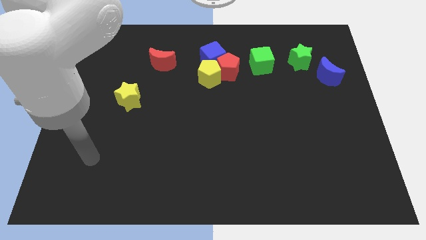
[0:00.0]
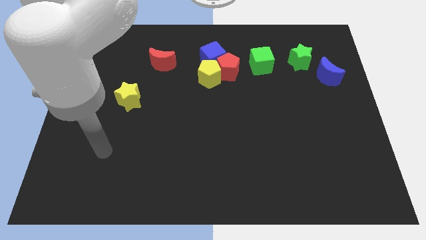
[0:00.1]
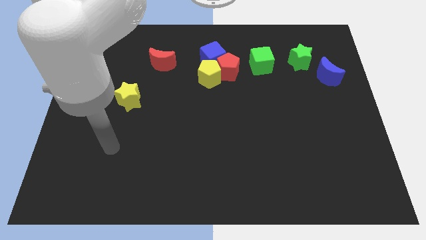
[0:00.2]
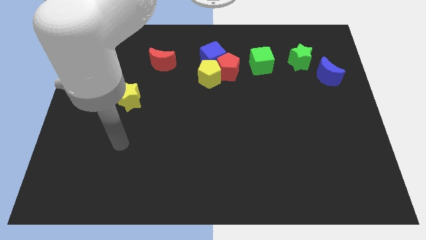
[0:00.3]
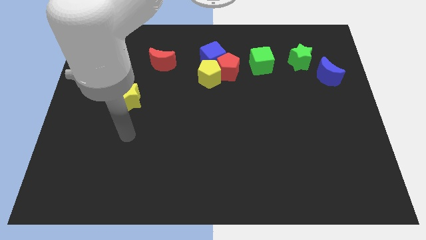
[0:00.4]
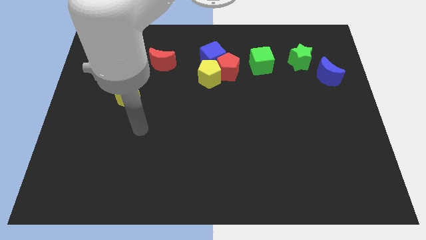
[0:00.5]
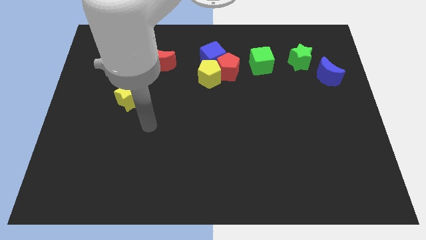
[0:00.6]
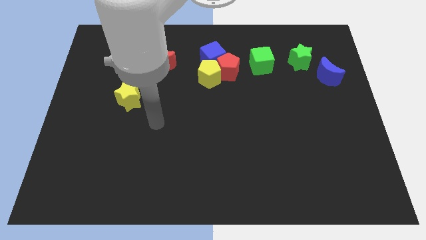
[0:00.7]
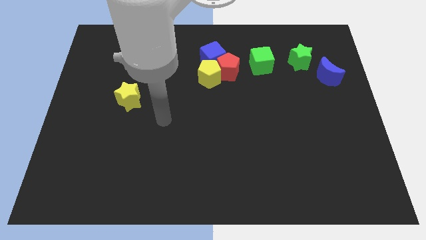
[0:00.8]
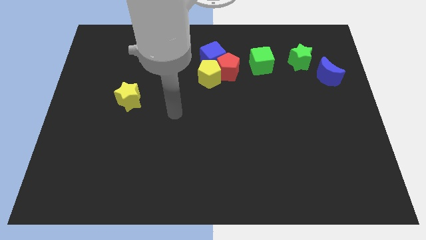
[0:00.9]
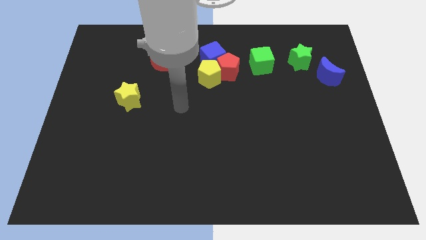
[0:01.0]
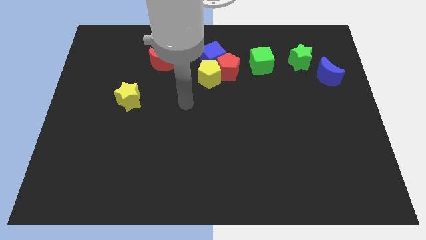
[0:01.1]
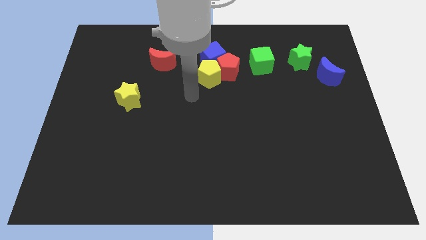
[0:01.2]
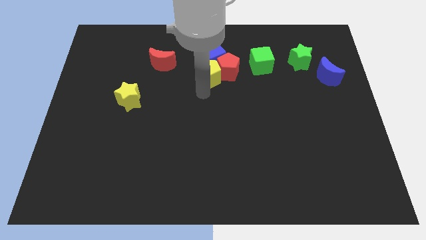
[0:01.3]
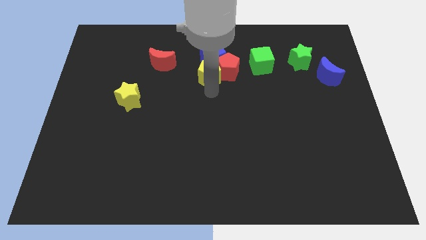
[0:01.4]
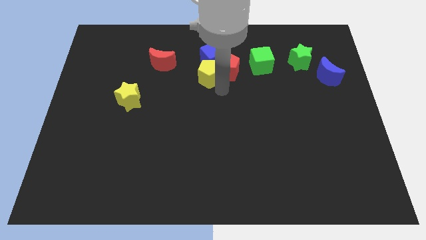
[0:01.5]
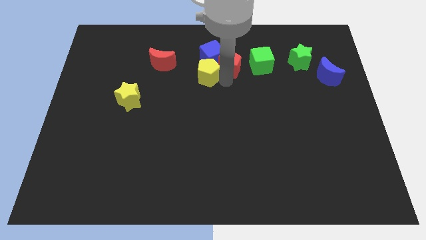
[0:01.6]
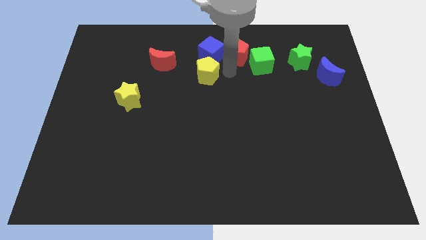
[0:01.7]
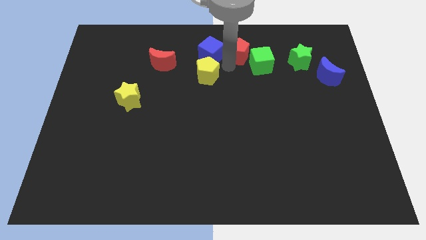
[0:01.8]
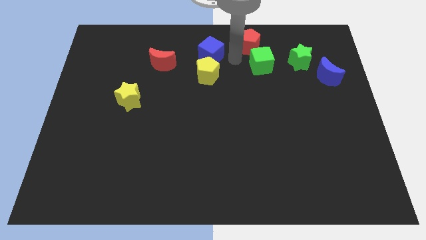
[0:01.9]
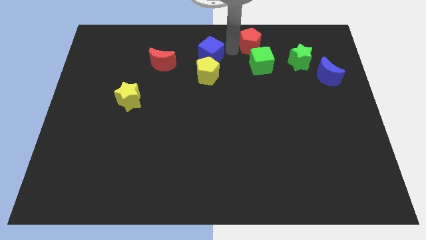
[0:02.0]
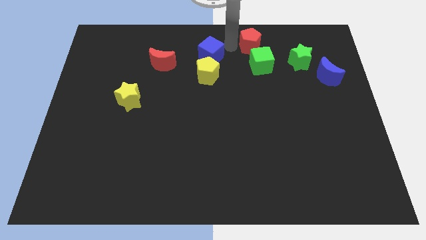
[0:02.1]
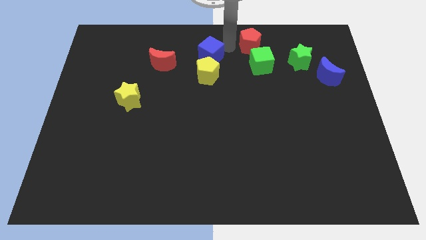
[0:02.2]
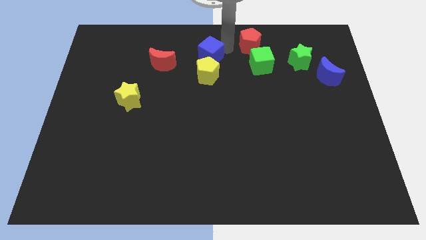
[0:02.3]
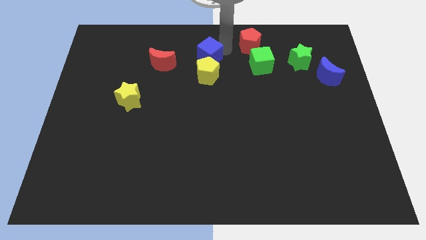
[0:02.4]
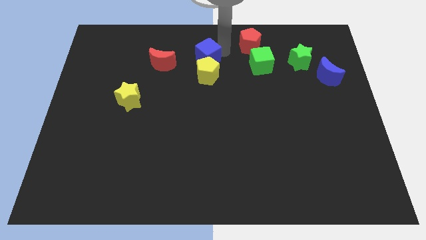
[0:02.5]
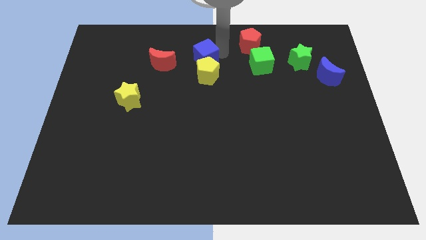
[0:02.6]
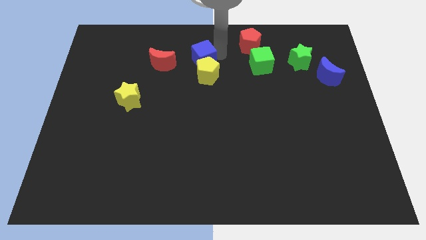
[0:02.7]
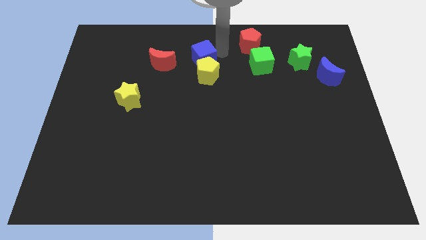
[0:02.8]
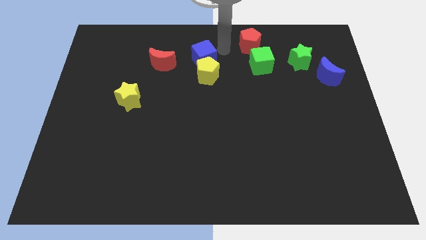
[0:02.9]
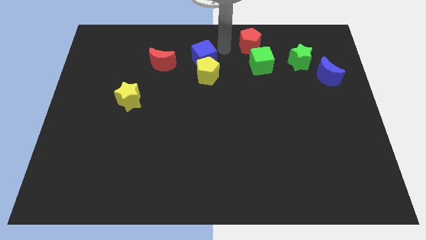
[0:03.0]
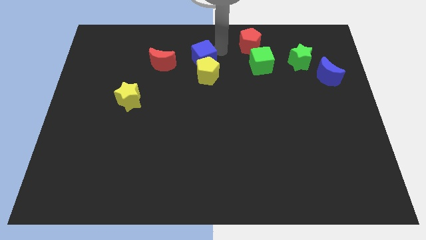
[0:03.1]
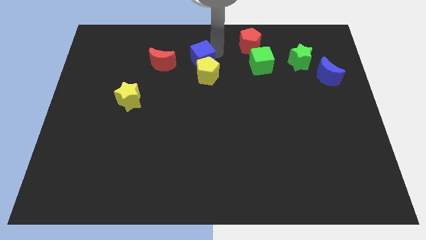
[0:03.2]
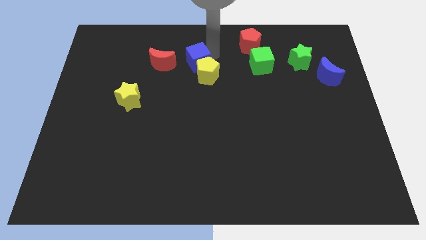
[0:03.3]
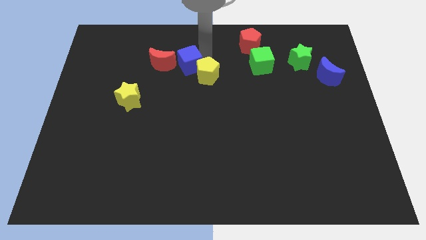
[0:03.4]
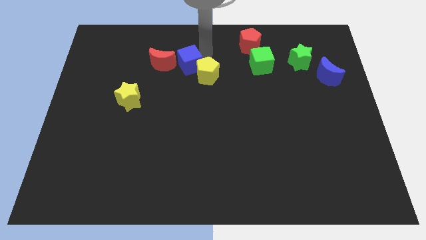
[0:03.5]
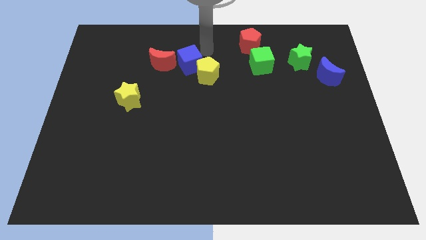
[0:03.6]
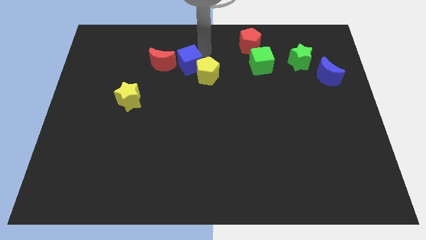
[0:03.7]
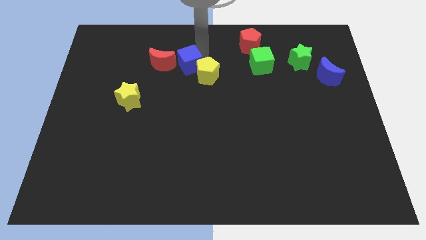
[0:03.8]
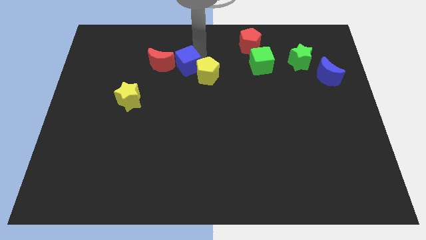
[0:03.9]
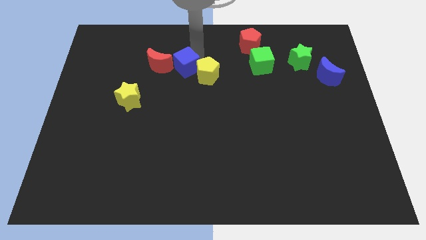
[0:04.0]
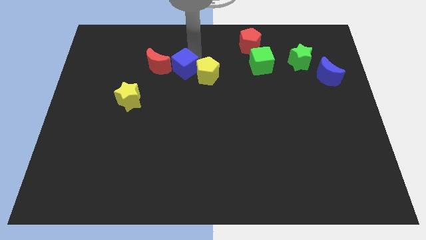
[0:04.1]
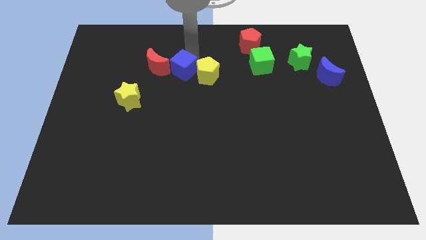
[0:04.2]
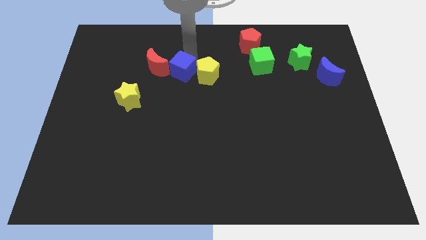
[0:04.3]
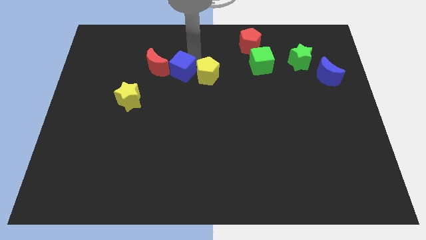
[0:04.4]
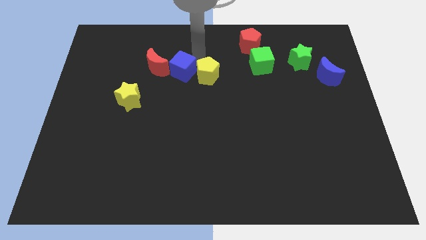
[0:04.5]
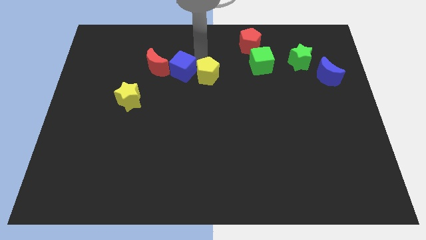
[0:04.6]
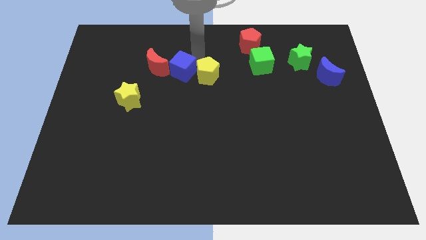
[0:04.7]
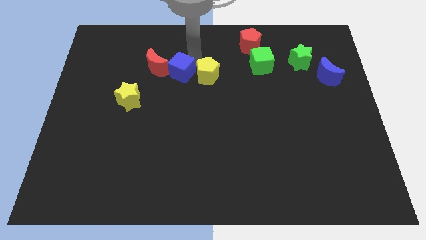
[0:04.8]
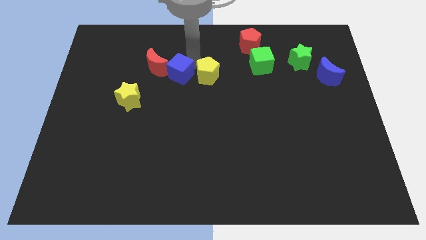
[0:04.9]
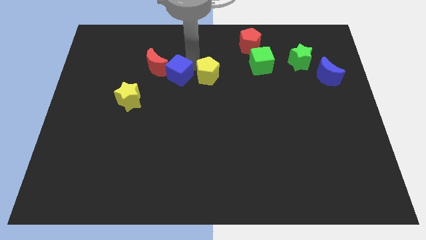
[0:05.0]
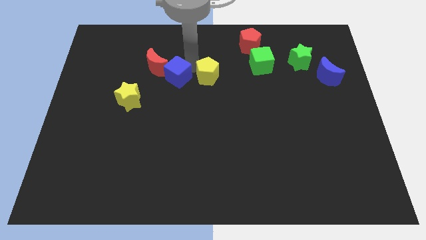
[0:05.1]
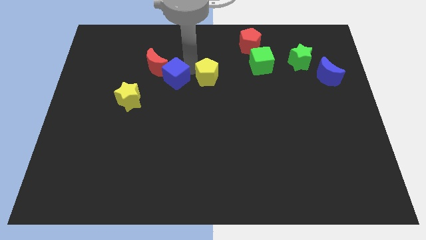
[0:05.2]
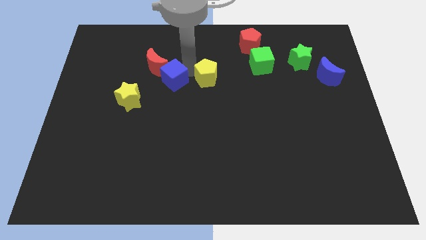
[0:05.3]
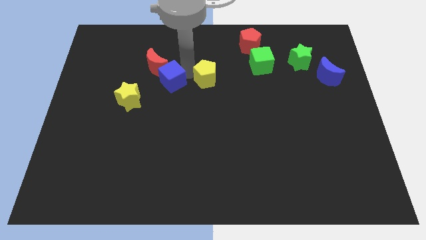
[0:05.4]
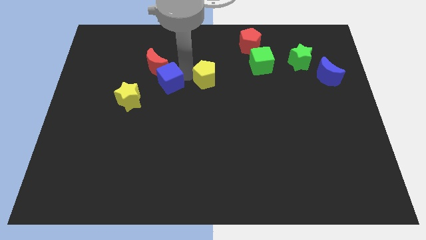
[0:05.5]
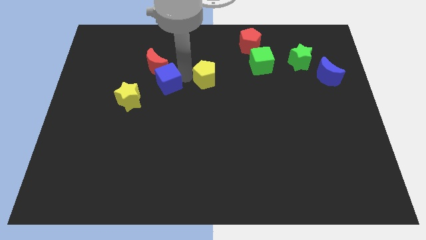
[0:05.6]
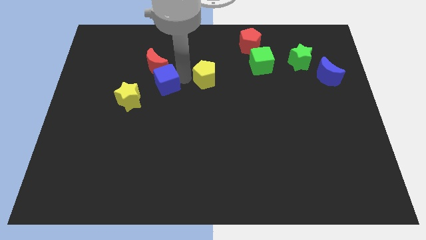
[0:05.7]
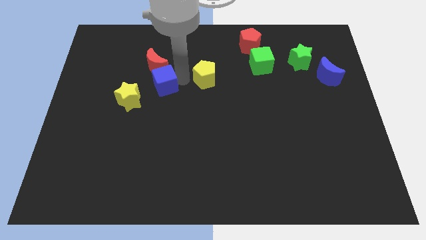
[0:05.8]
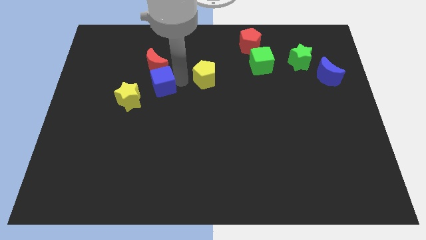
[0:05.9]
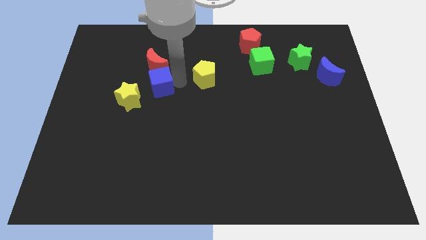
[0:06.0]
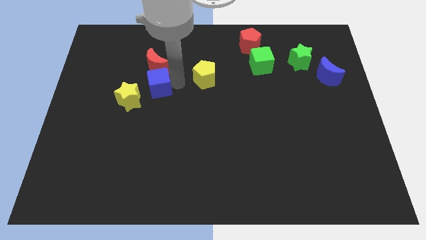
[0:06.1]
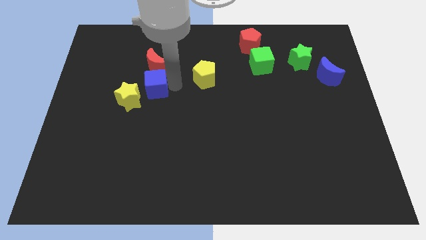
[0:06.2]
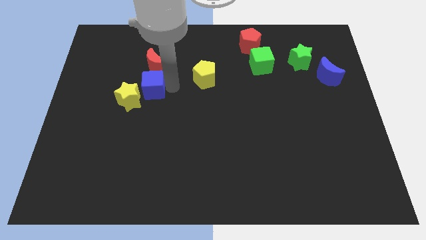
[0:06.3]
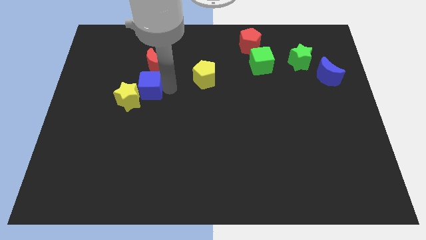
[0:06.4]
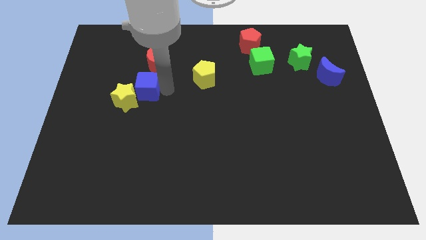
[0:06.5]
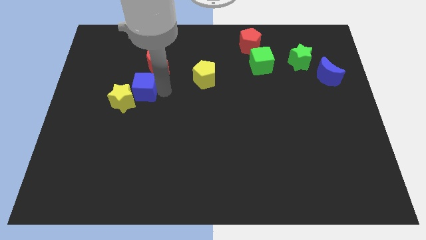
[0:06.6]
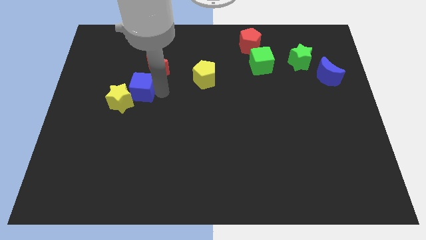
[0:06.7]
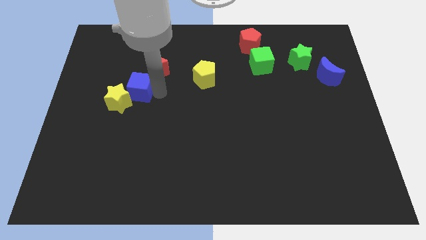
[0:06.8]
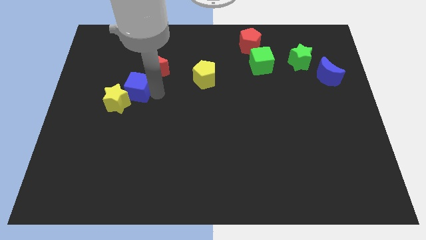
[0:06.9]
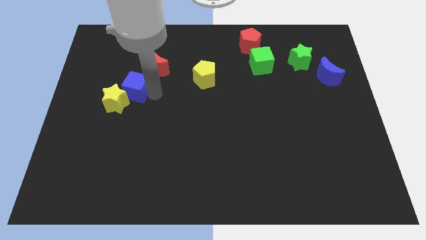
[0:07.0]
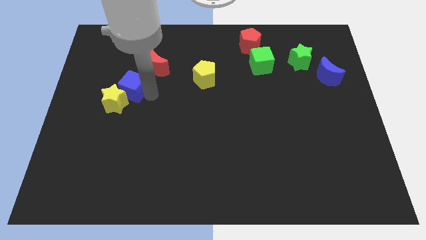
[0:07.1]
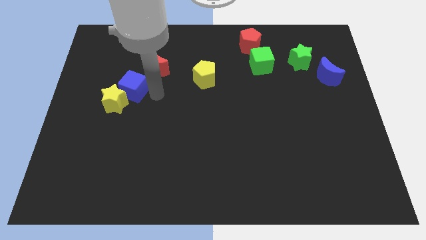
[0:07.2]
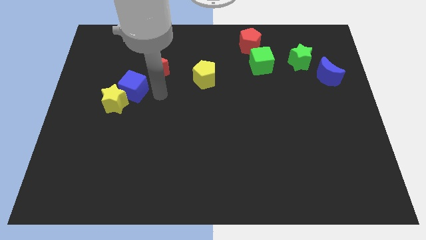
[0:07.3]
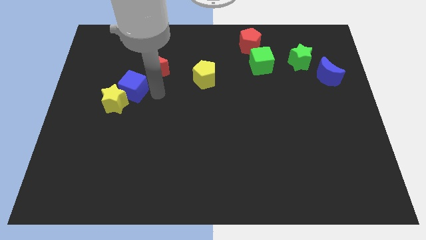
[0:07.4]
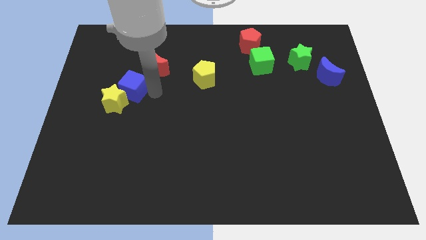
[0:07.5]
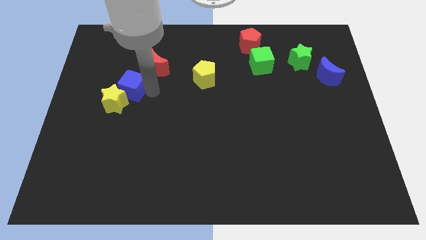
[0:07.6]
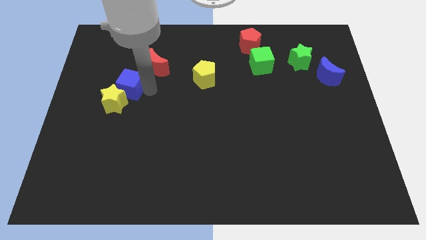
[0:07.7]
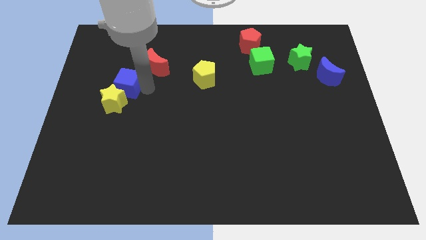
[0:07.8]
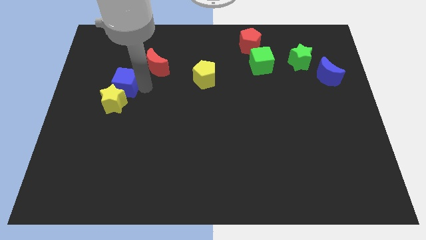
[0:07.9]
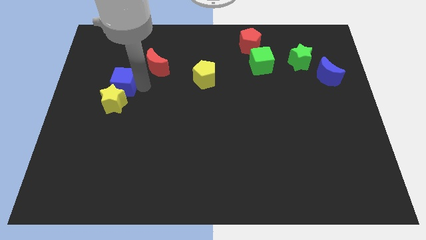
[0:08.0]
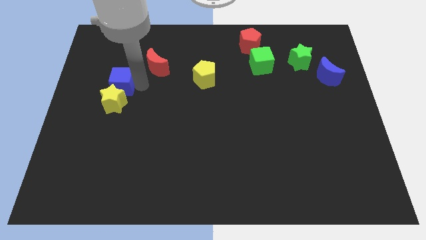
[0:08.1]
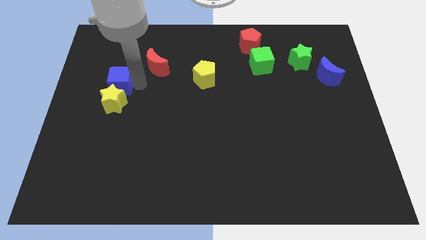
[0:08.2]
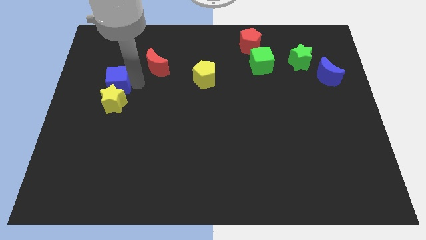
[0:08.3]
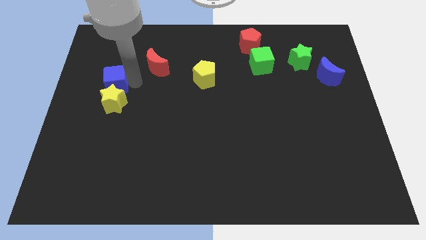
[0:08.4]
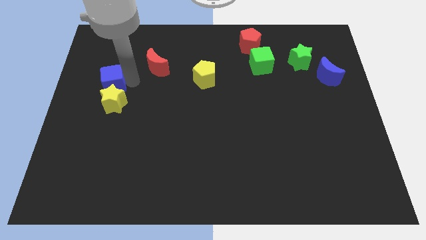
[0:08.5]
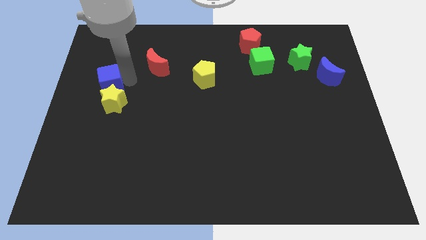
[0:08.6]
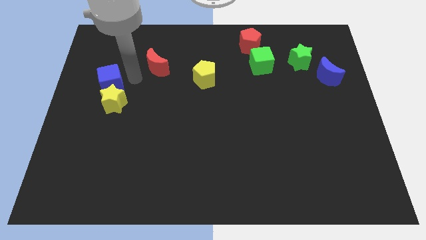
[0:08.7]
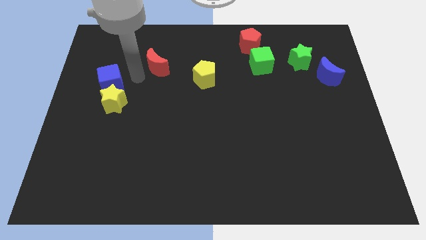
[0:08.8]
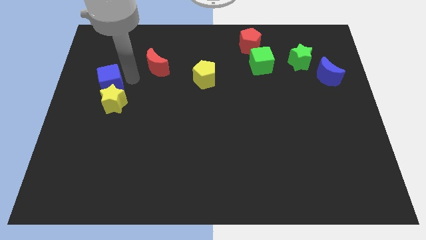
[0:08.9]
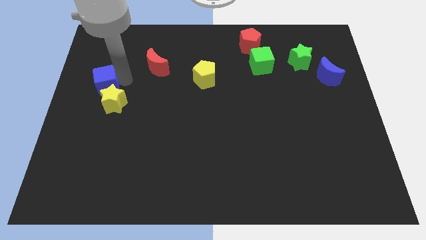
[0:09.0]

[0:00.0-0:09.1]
push the blue cube to the center left
